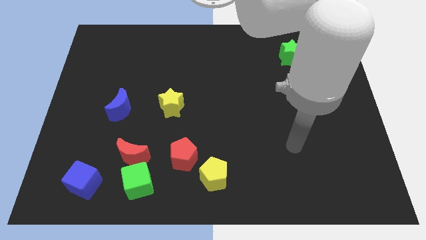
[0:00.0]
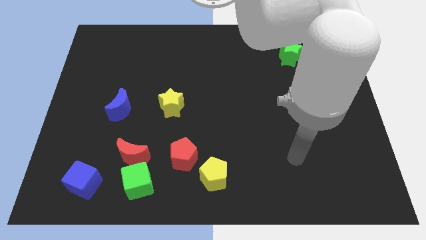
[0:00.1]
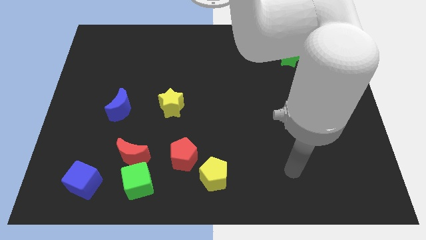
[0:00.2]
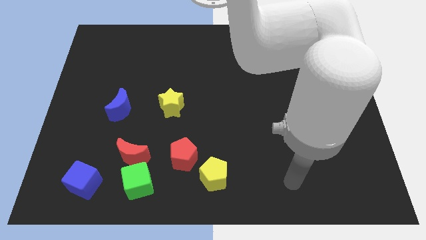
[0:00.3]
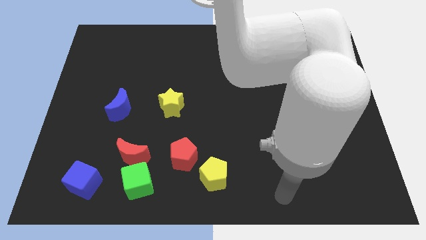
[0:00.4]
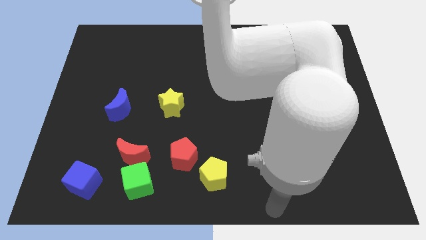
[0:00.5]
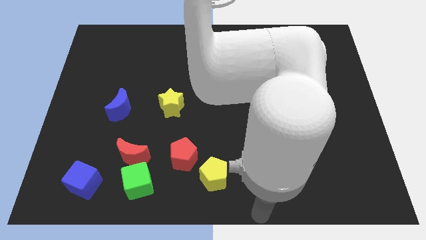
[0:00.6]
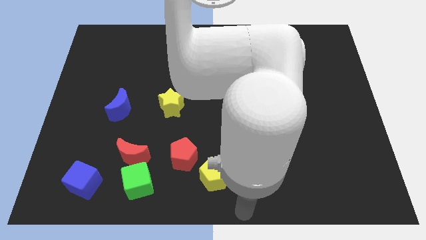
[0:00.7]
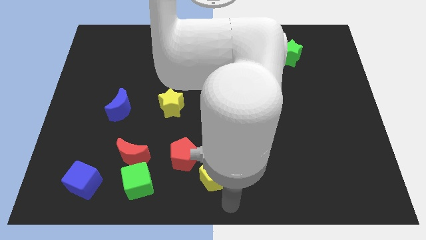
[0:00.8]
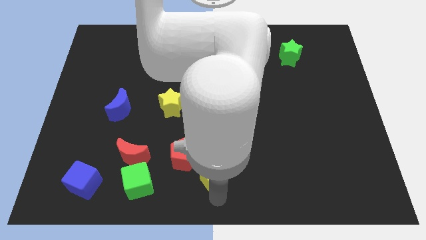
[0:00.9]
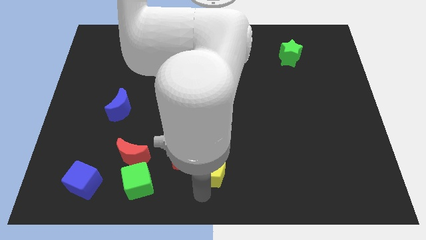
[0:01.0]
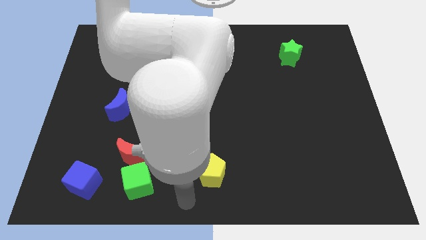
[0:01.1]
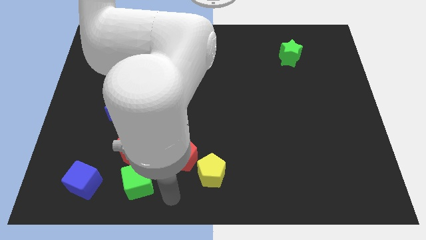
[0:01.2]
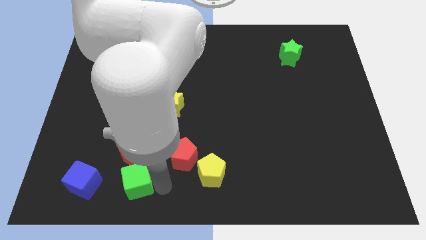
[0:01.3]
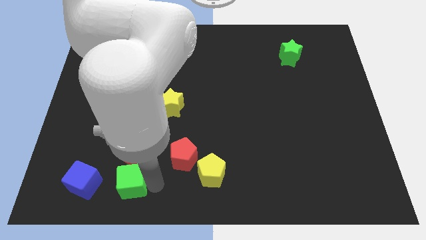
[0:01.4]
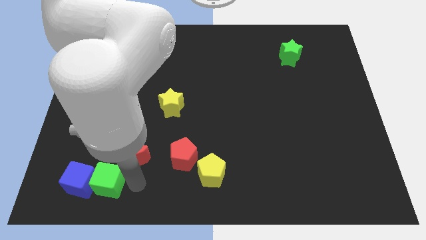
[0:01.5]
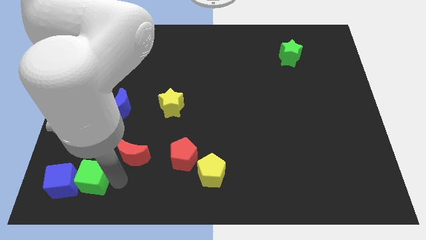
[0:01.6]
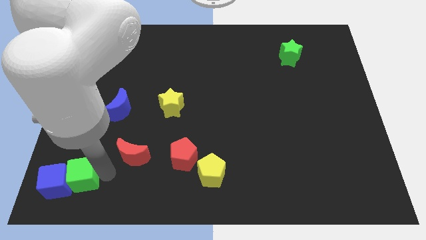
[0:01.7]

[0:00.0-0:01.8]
move the red moon away from the green cube

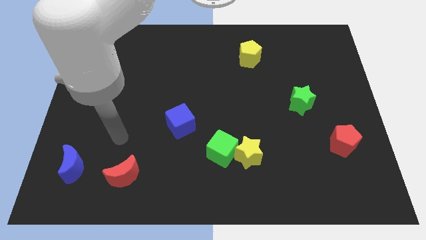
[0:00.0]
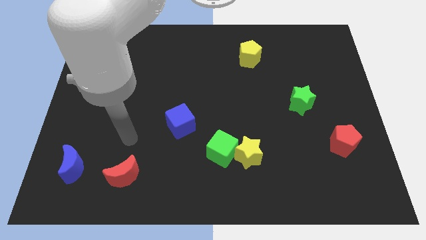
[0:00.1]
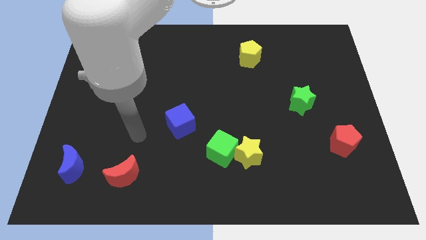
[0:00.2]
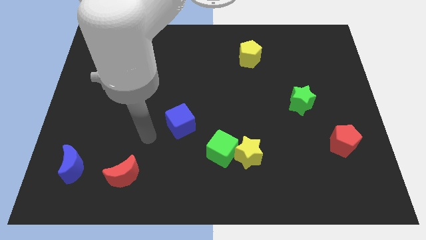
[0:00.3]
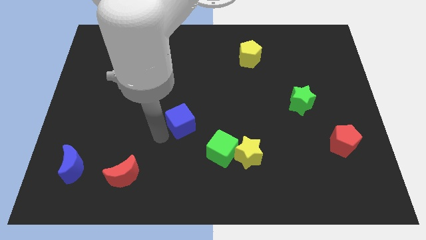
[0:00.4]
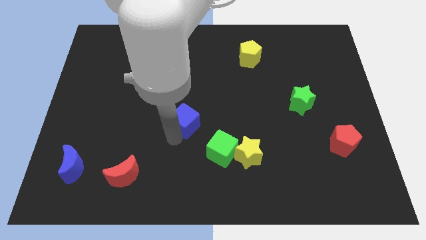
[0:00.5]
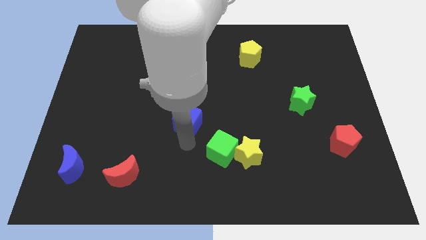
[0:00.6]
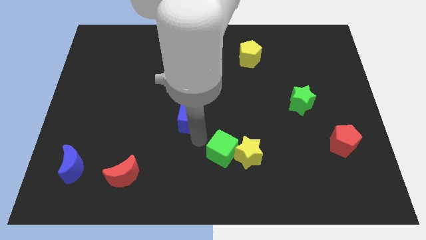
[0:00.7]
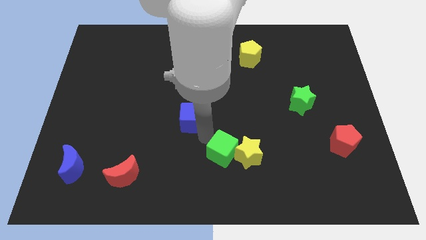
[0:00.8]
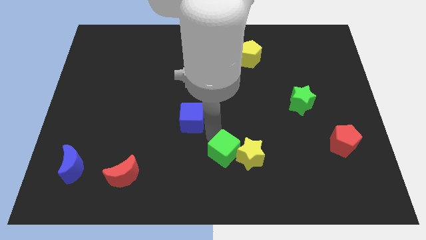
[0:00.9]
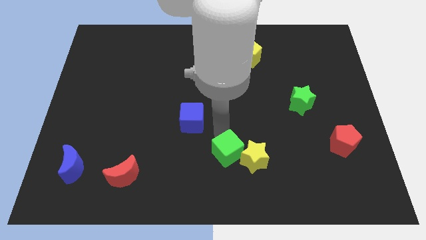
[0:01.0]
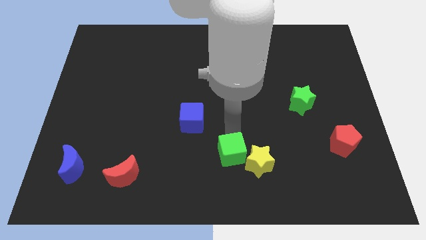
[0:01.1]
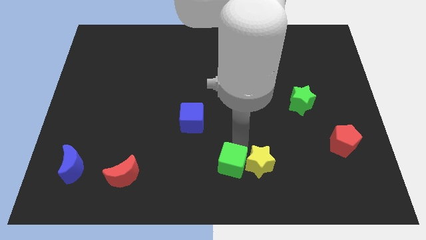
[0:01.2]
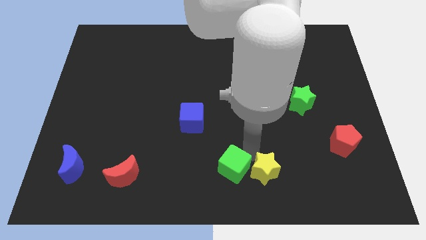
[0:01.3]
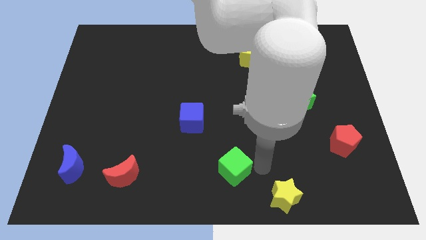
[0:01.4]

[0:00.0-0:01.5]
separate the green cube from the yellow star

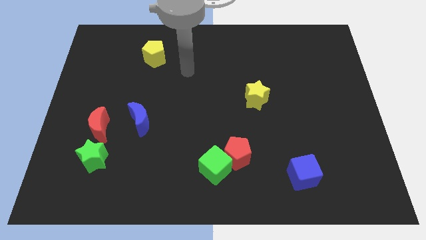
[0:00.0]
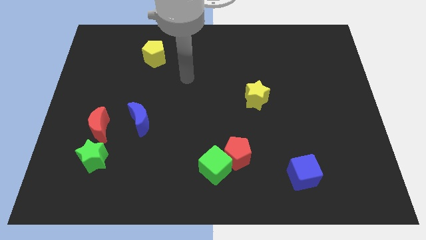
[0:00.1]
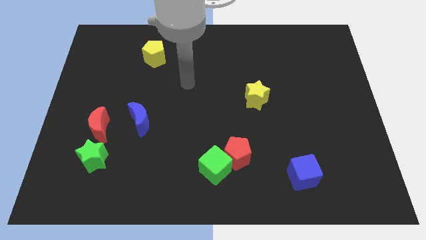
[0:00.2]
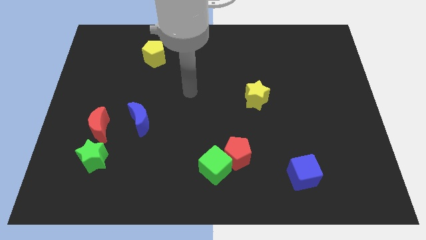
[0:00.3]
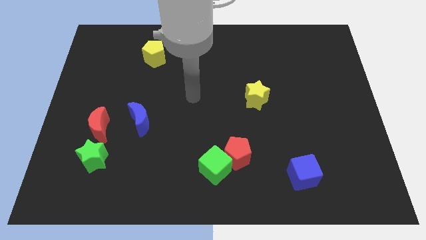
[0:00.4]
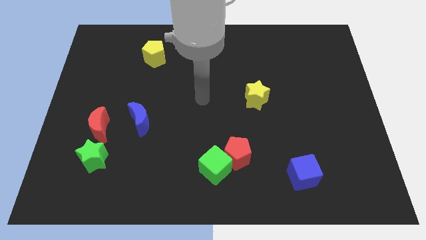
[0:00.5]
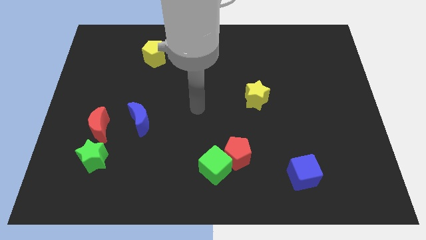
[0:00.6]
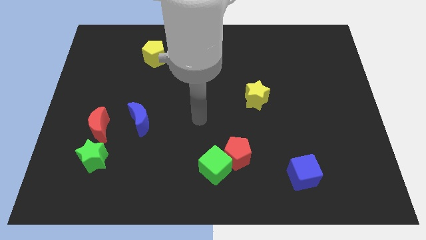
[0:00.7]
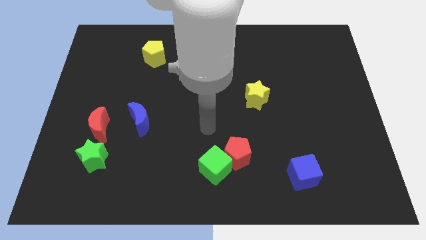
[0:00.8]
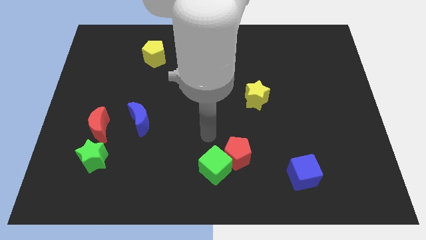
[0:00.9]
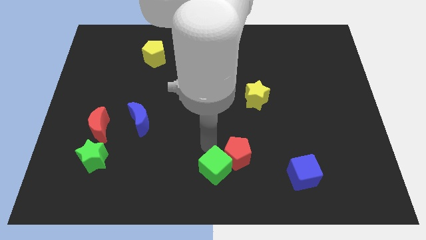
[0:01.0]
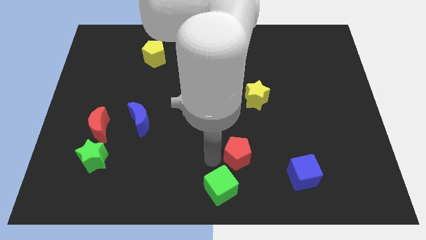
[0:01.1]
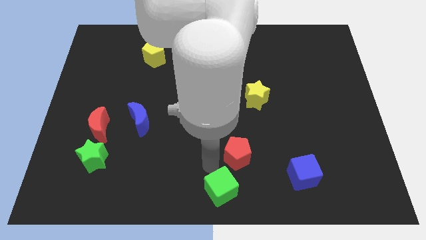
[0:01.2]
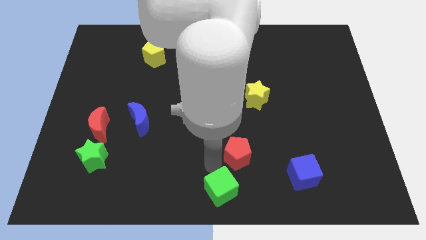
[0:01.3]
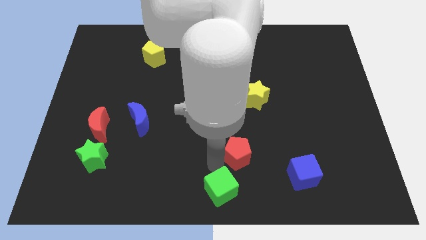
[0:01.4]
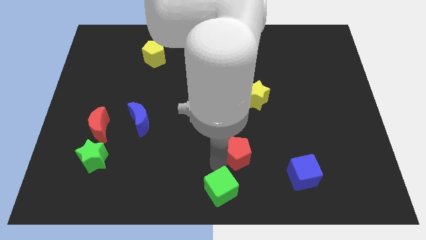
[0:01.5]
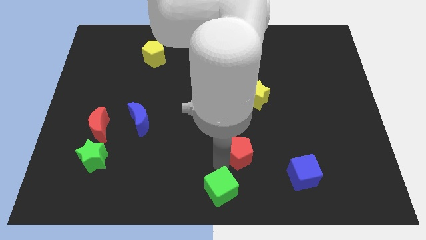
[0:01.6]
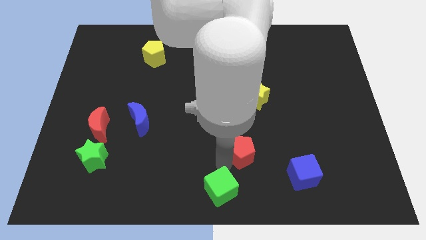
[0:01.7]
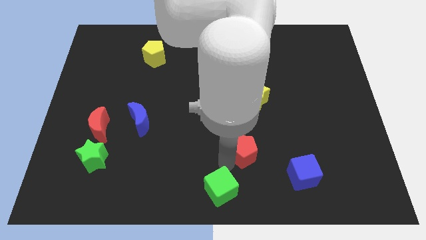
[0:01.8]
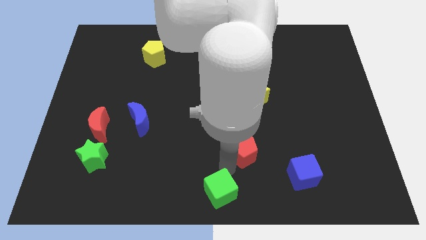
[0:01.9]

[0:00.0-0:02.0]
pull the red pentagon apart from the green cube

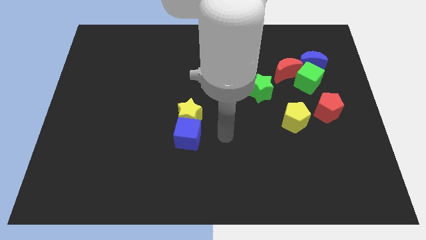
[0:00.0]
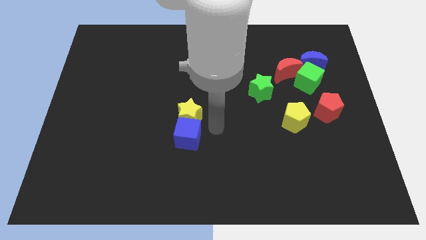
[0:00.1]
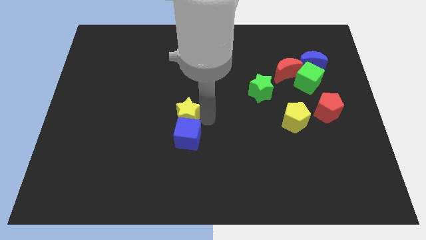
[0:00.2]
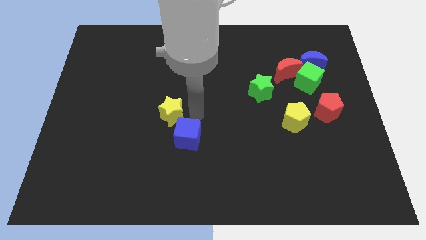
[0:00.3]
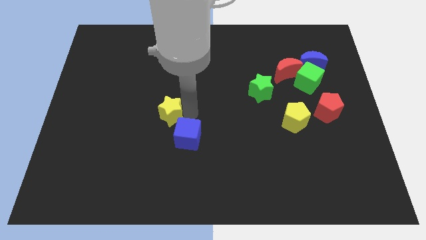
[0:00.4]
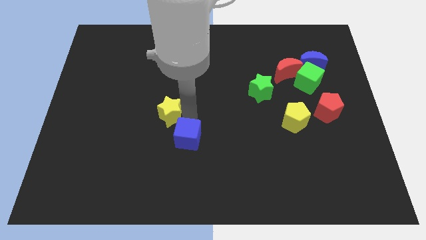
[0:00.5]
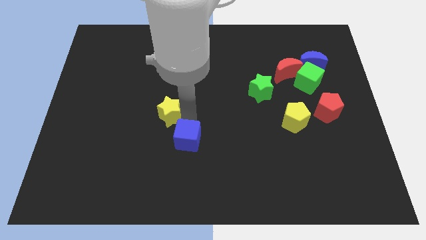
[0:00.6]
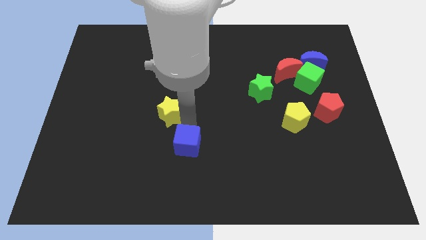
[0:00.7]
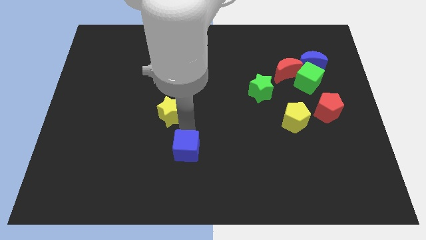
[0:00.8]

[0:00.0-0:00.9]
move the blue cube away from the yellow star

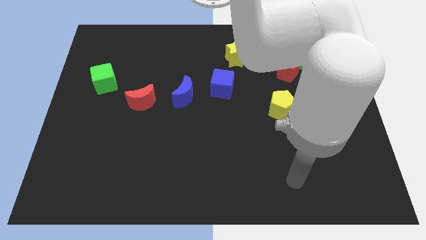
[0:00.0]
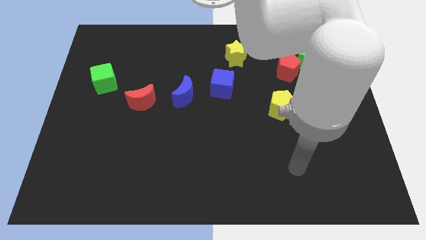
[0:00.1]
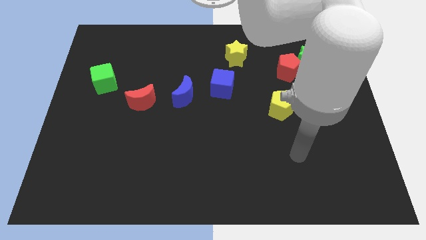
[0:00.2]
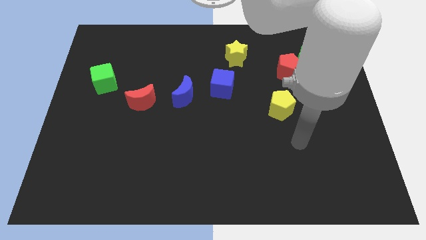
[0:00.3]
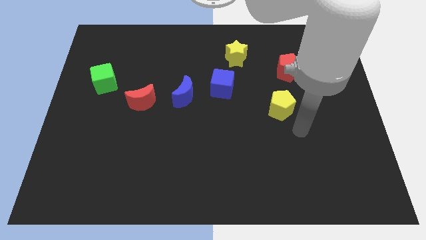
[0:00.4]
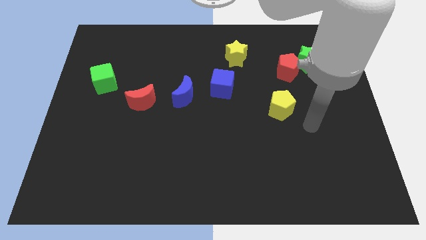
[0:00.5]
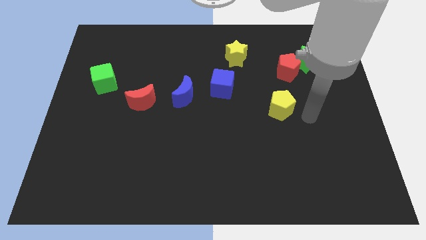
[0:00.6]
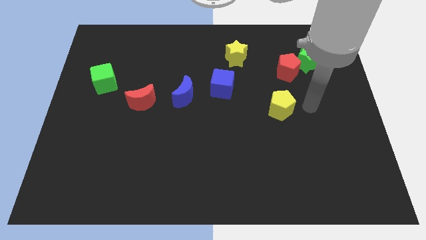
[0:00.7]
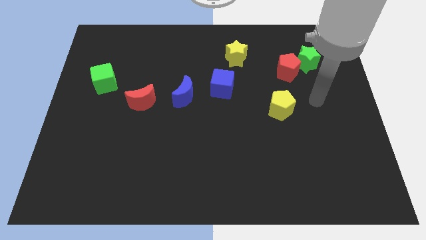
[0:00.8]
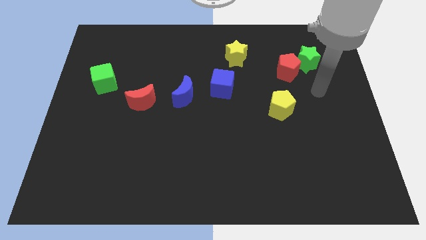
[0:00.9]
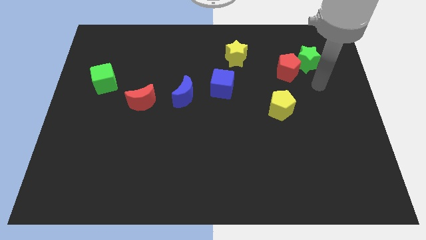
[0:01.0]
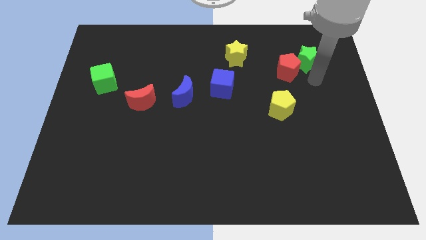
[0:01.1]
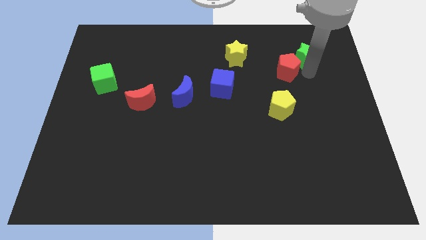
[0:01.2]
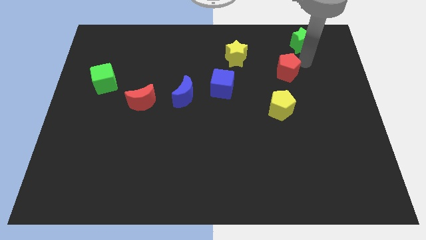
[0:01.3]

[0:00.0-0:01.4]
pull the red pentagon apart from the green star

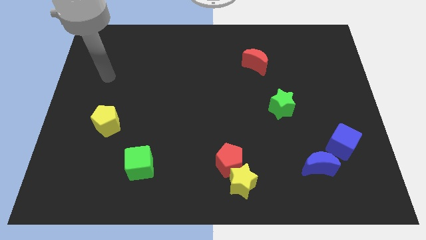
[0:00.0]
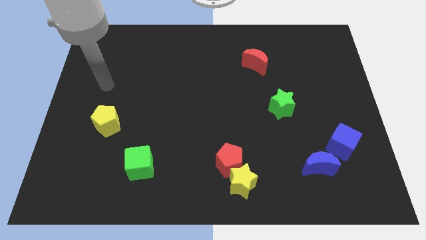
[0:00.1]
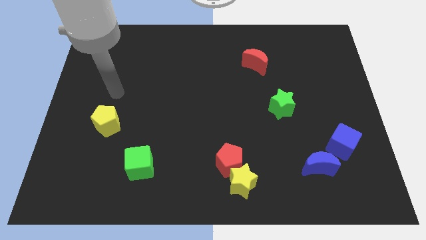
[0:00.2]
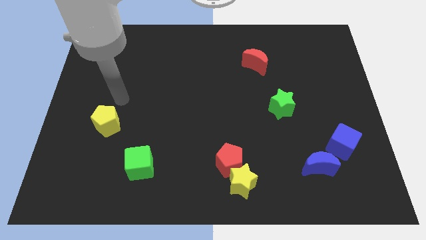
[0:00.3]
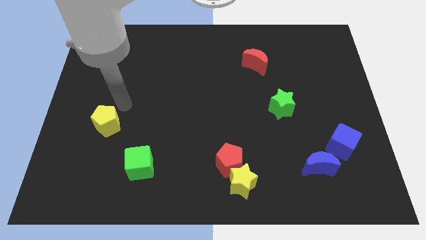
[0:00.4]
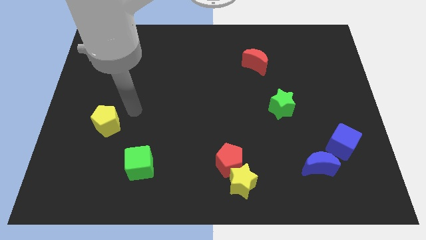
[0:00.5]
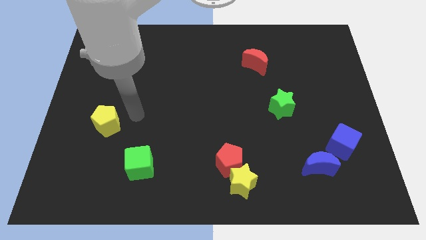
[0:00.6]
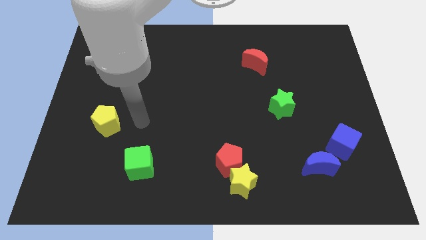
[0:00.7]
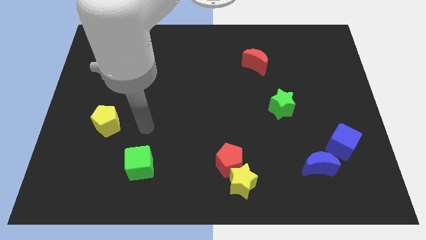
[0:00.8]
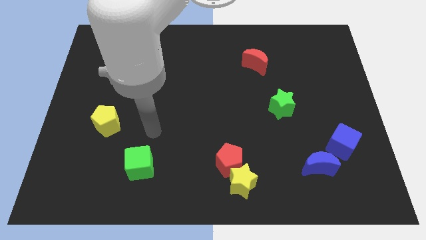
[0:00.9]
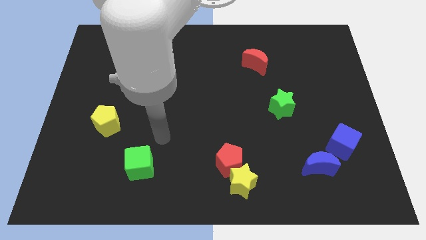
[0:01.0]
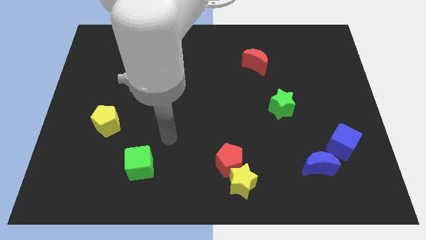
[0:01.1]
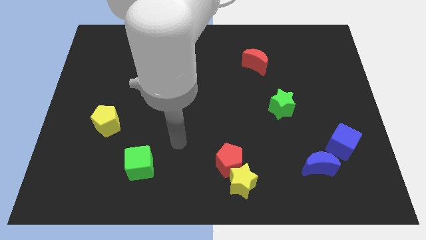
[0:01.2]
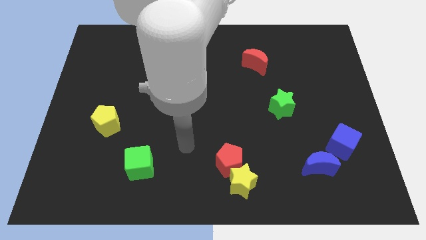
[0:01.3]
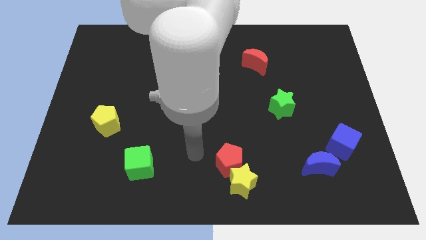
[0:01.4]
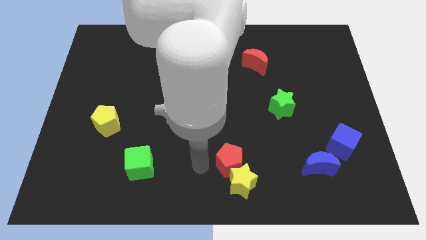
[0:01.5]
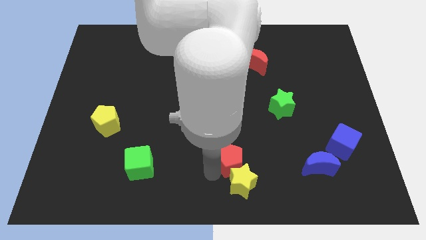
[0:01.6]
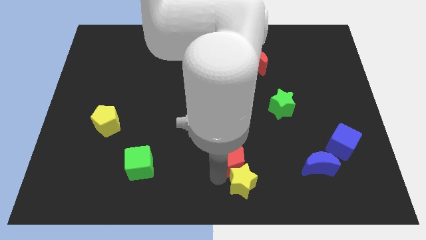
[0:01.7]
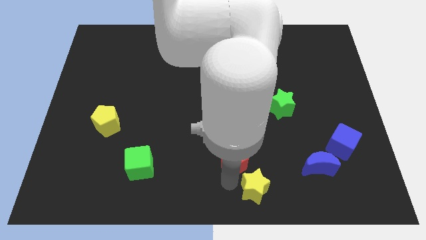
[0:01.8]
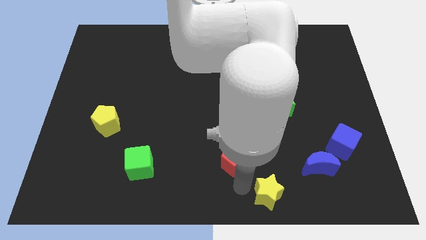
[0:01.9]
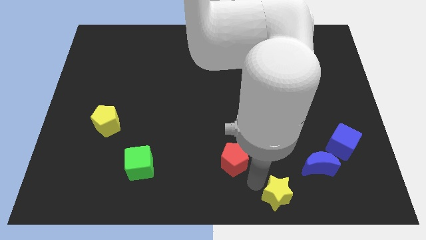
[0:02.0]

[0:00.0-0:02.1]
separate the red pentagon from the yellow star
